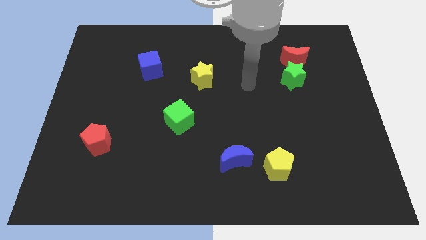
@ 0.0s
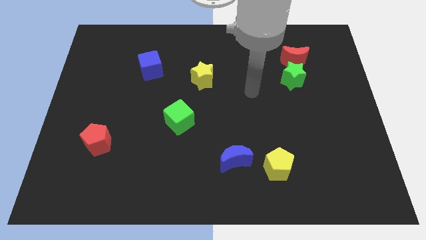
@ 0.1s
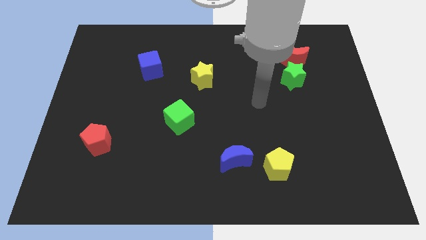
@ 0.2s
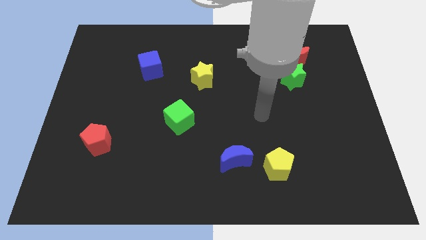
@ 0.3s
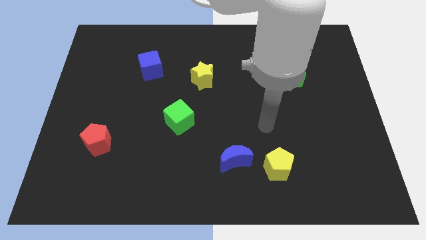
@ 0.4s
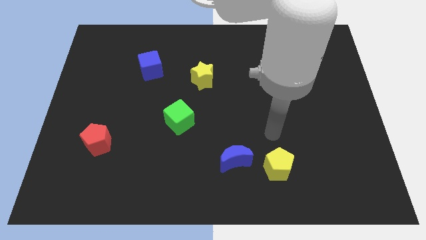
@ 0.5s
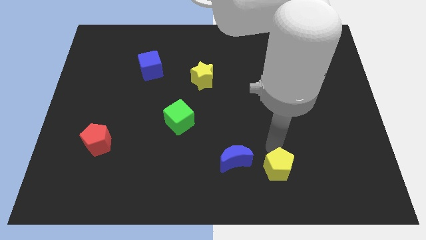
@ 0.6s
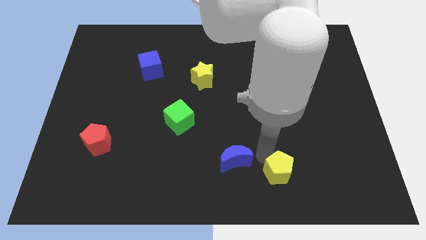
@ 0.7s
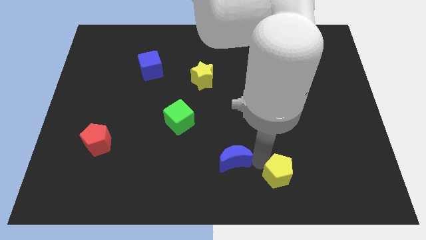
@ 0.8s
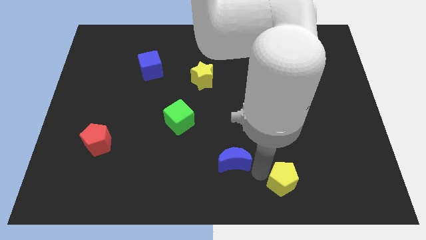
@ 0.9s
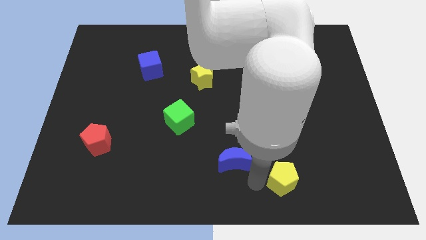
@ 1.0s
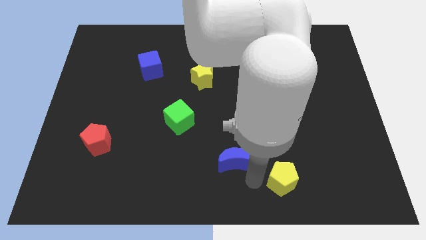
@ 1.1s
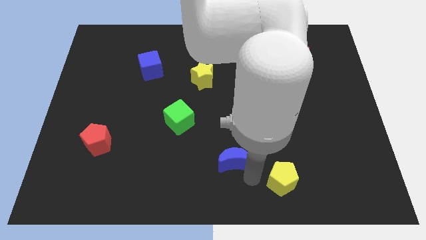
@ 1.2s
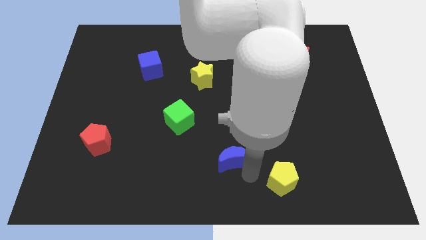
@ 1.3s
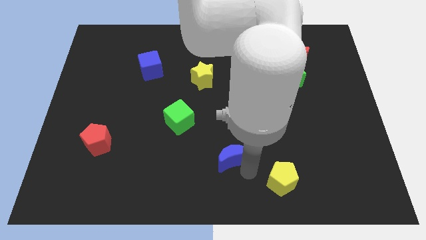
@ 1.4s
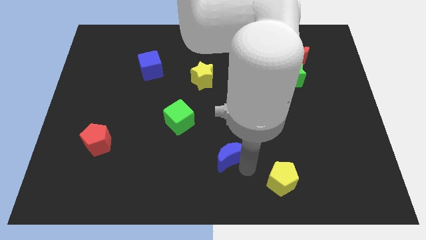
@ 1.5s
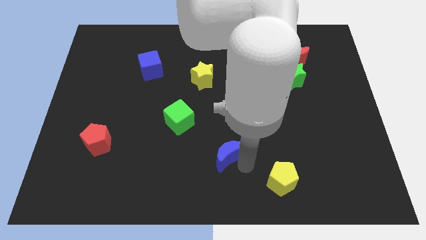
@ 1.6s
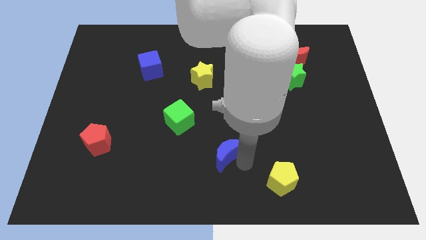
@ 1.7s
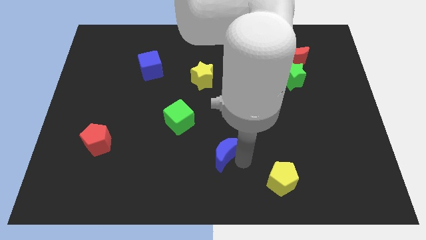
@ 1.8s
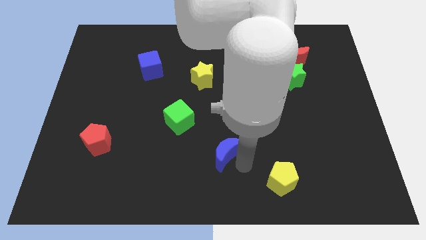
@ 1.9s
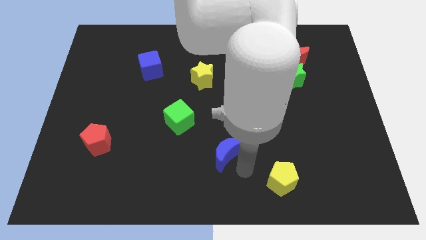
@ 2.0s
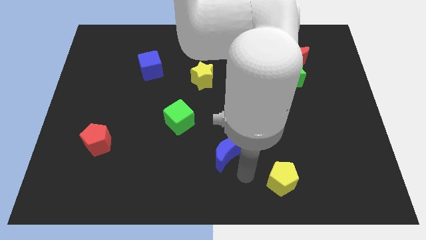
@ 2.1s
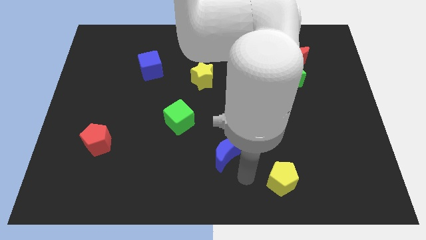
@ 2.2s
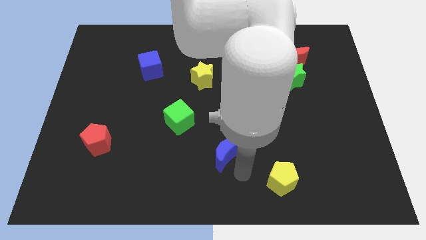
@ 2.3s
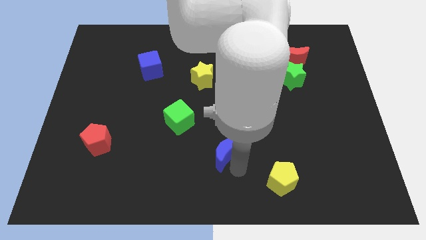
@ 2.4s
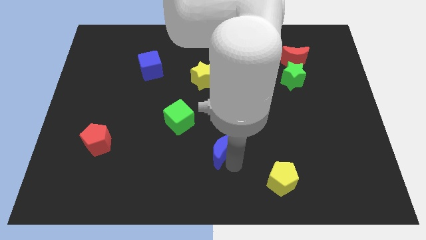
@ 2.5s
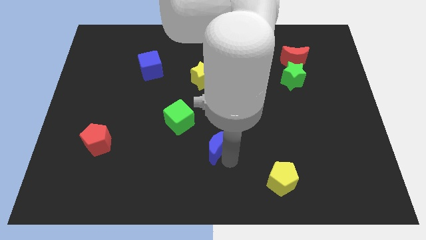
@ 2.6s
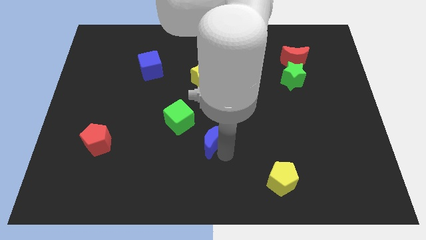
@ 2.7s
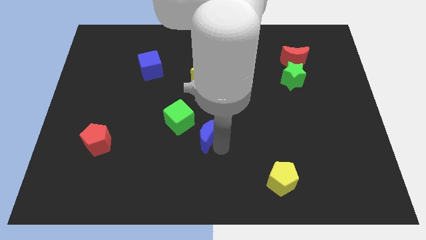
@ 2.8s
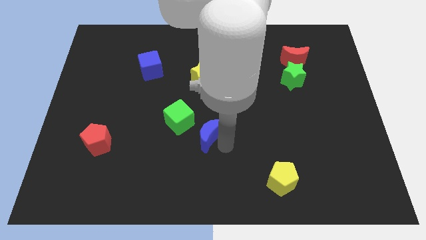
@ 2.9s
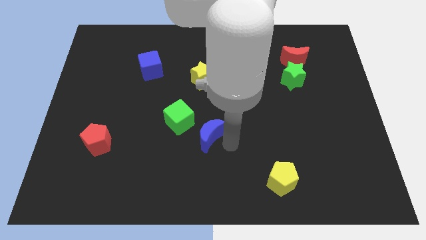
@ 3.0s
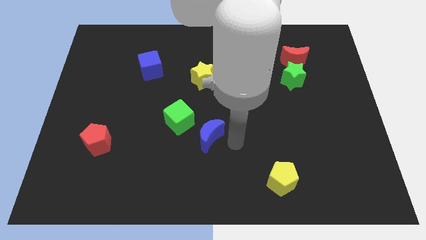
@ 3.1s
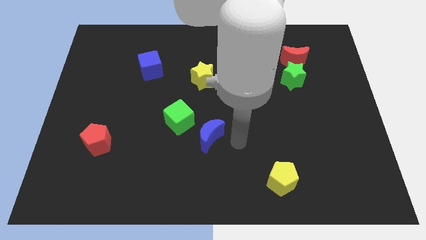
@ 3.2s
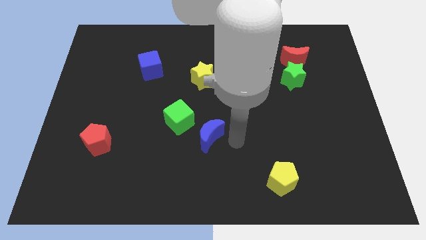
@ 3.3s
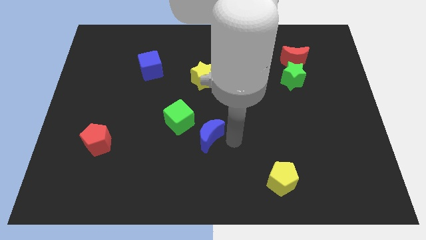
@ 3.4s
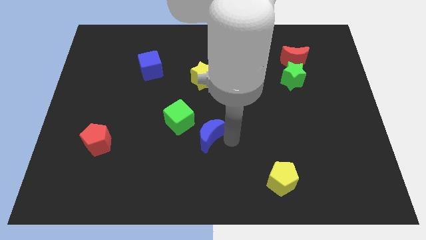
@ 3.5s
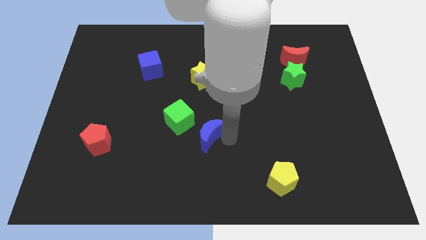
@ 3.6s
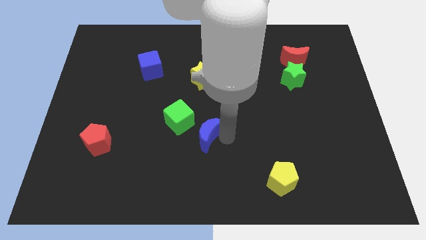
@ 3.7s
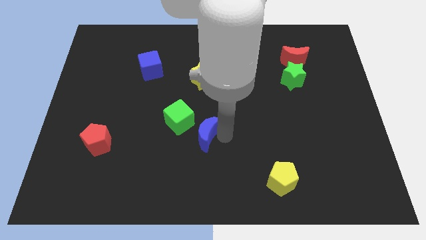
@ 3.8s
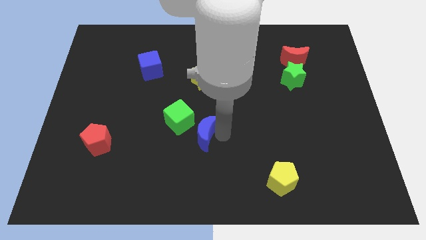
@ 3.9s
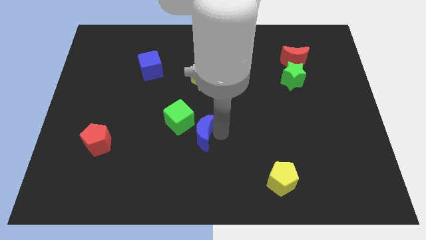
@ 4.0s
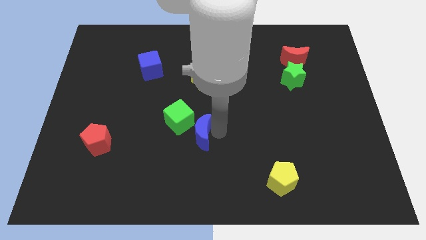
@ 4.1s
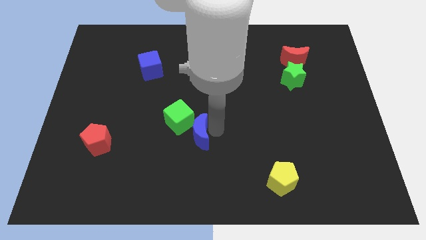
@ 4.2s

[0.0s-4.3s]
put the blue moon towards the green cube

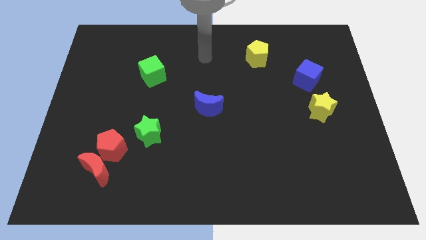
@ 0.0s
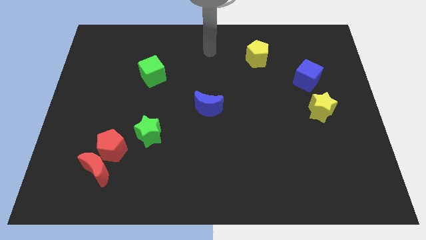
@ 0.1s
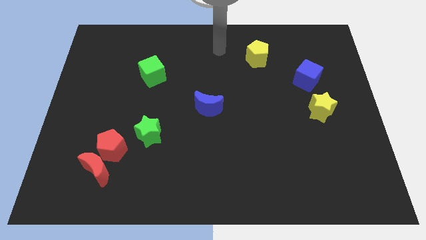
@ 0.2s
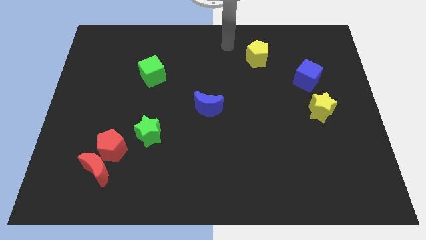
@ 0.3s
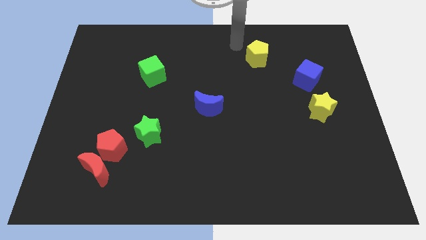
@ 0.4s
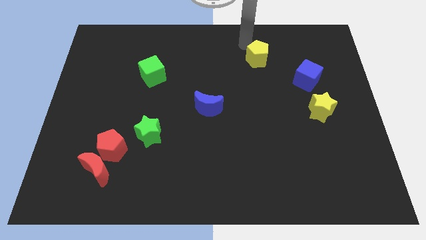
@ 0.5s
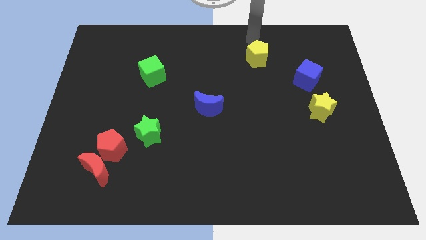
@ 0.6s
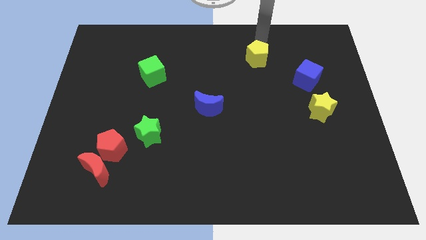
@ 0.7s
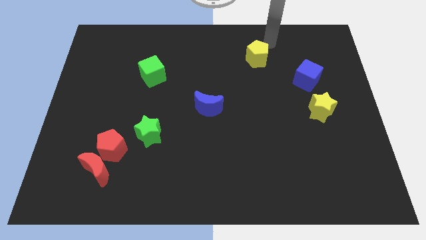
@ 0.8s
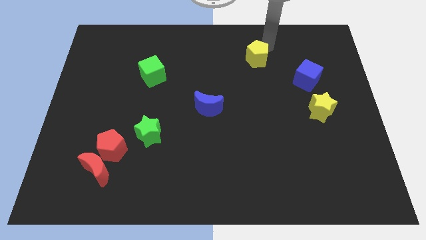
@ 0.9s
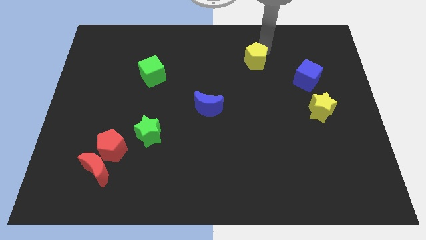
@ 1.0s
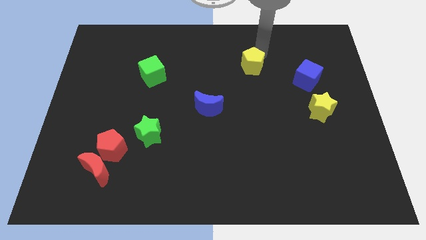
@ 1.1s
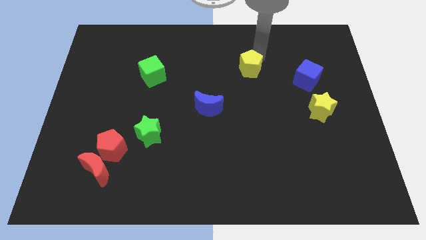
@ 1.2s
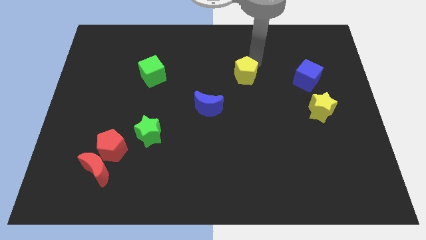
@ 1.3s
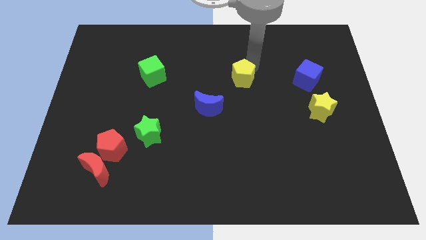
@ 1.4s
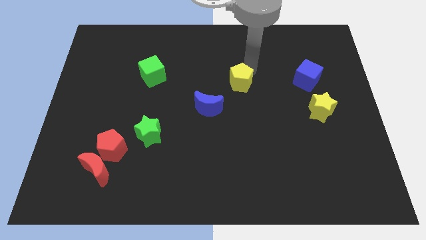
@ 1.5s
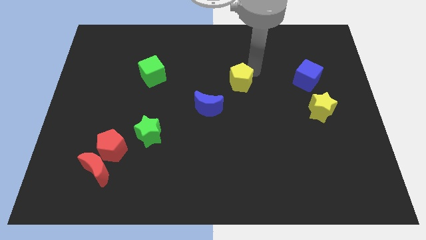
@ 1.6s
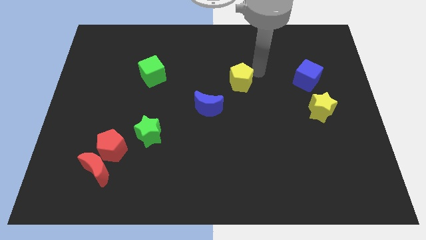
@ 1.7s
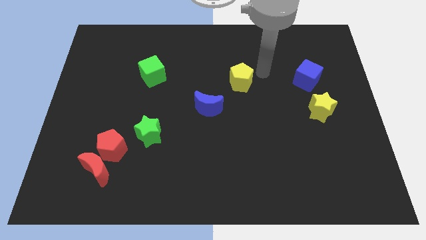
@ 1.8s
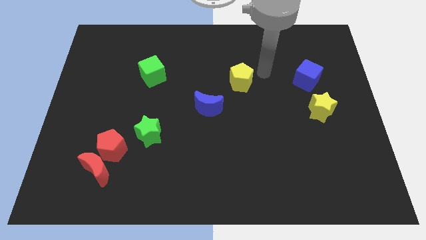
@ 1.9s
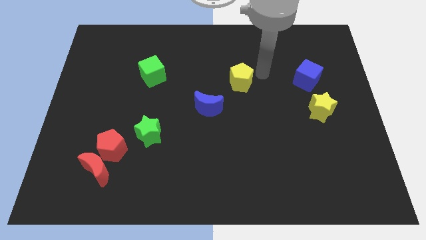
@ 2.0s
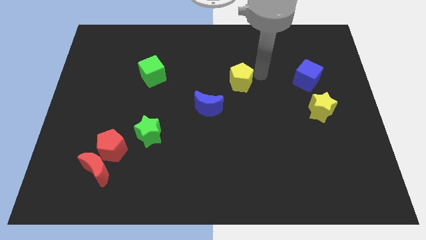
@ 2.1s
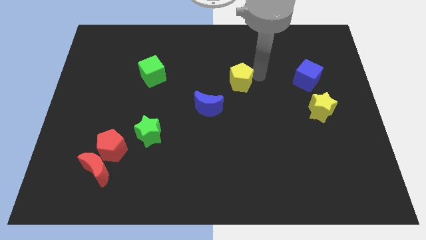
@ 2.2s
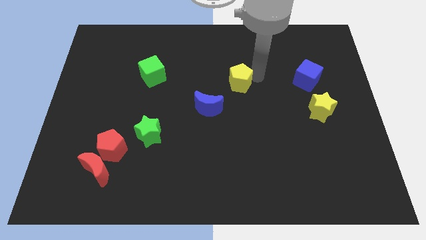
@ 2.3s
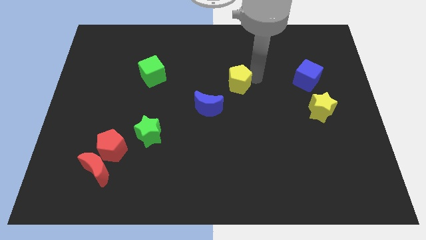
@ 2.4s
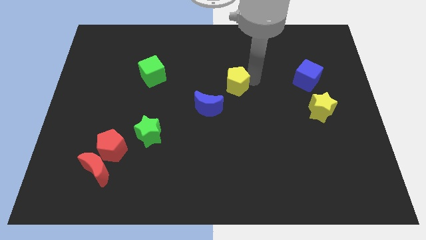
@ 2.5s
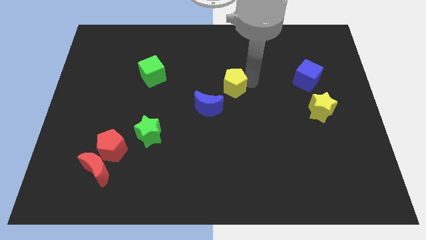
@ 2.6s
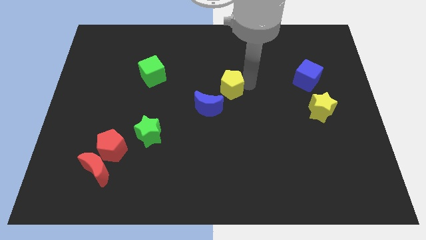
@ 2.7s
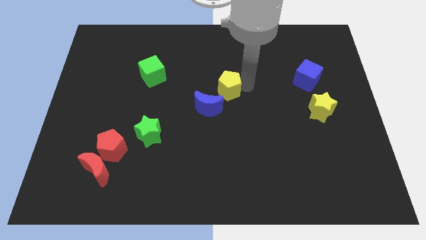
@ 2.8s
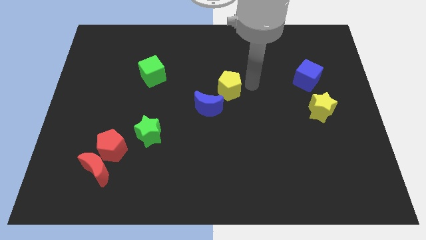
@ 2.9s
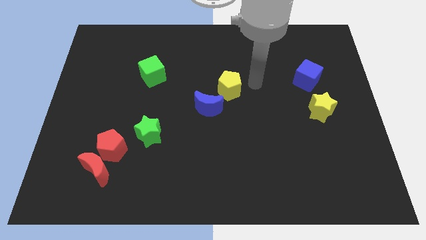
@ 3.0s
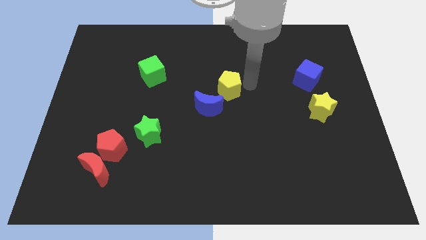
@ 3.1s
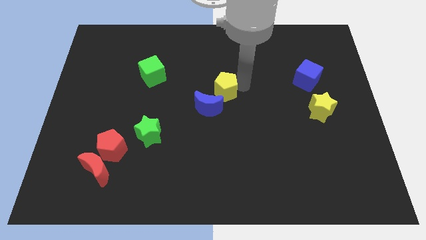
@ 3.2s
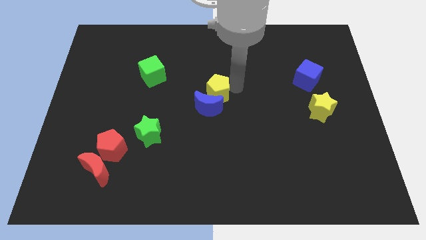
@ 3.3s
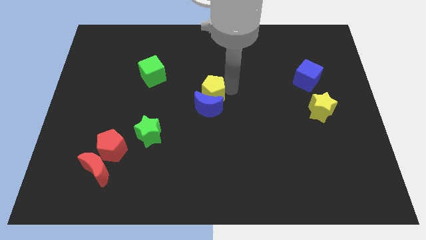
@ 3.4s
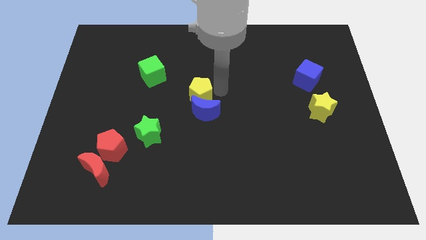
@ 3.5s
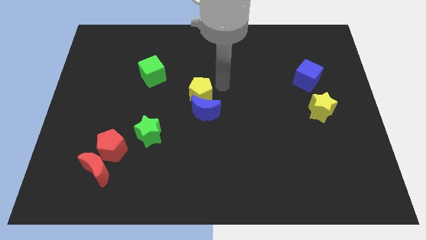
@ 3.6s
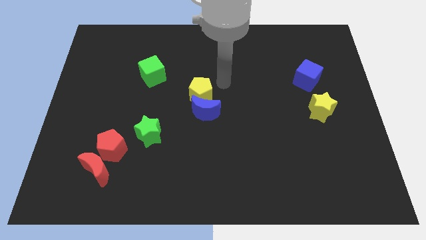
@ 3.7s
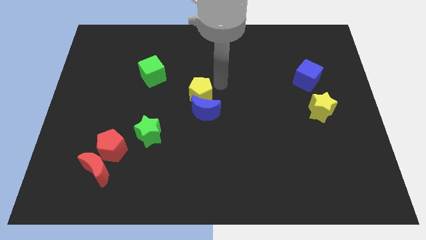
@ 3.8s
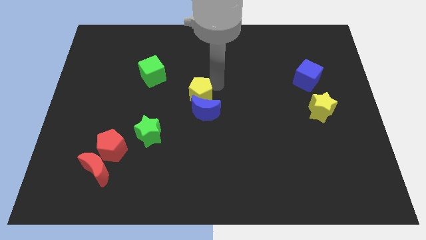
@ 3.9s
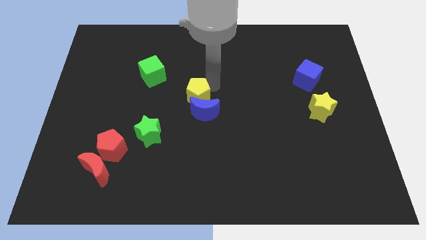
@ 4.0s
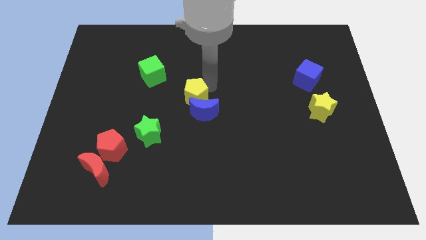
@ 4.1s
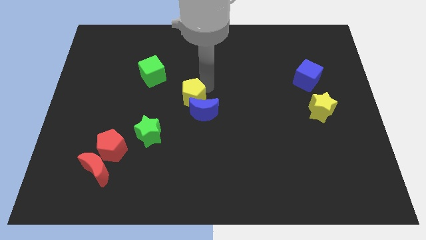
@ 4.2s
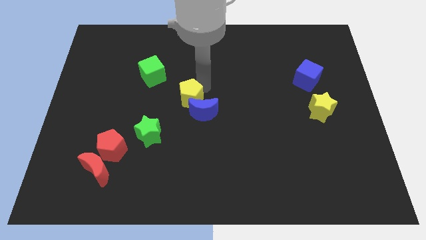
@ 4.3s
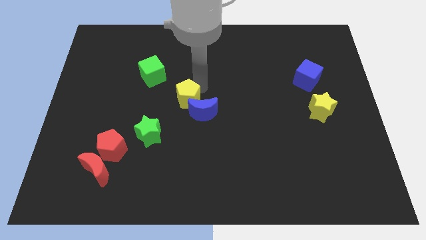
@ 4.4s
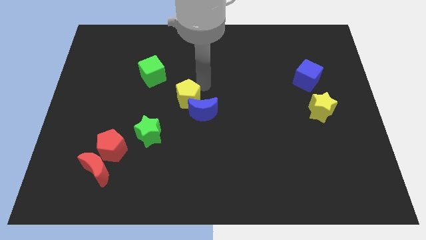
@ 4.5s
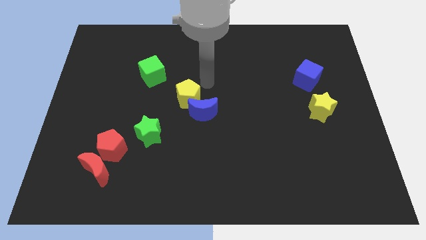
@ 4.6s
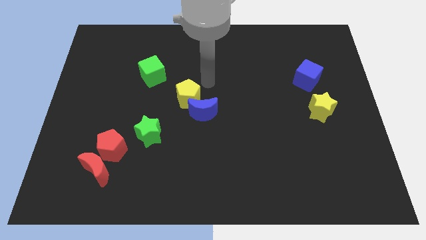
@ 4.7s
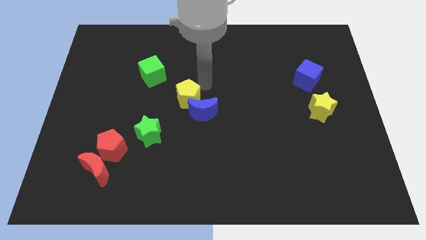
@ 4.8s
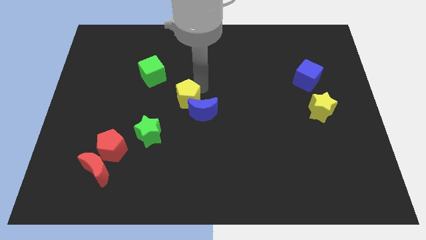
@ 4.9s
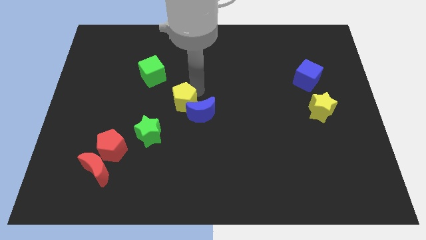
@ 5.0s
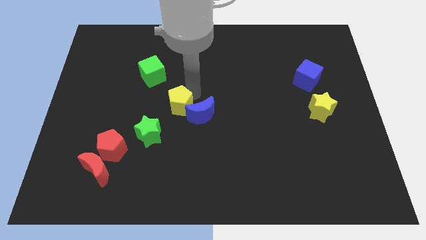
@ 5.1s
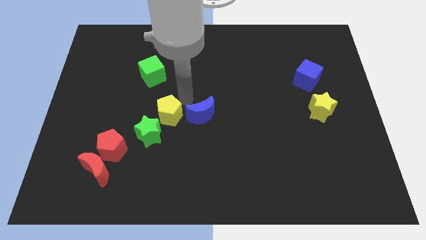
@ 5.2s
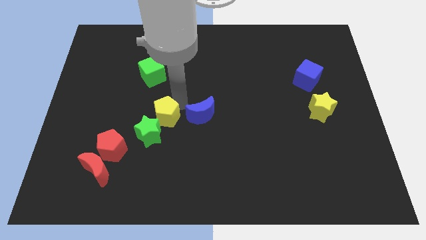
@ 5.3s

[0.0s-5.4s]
push the yellow pentagon close to the green star
